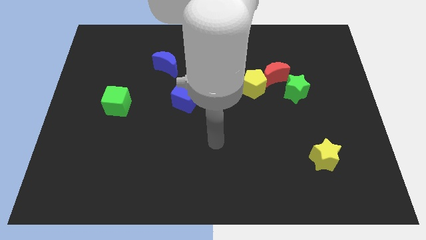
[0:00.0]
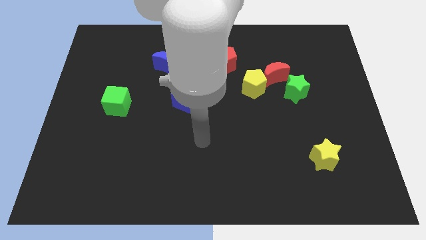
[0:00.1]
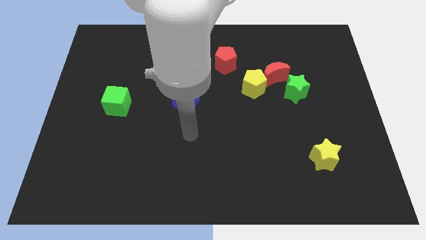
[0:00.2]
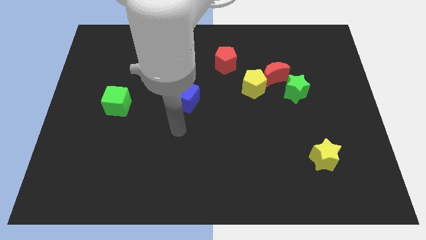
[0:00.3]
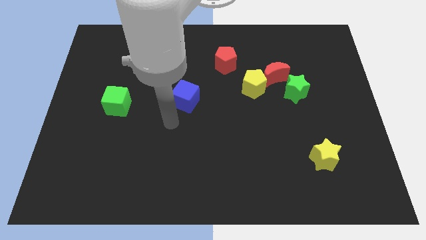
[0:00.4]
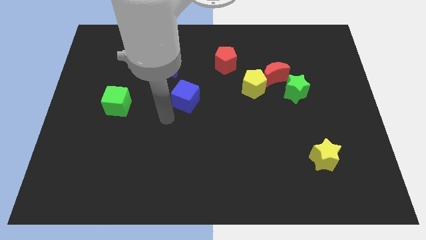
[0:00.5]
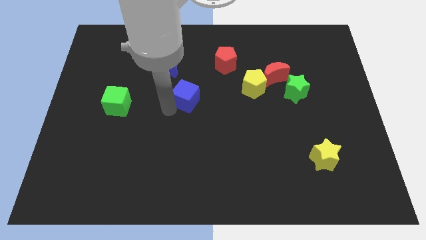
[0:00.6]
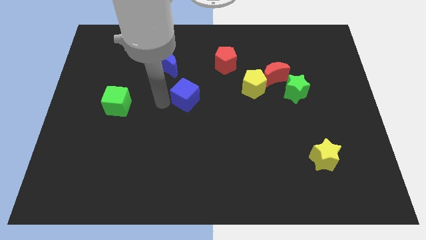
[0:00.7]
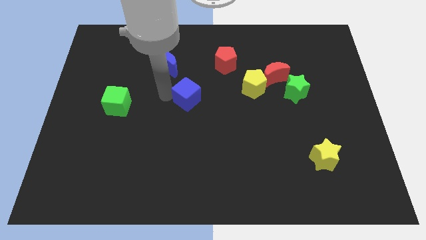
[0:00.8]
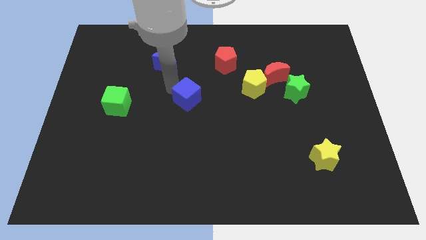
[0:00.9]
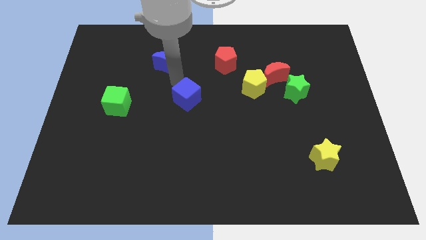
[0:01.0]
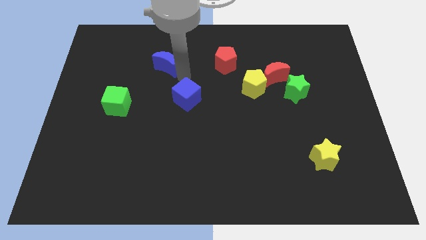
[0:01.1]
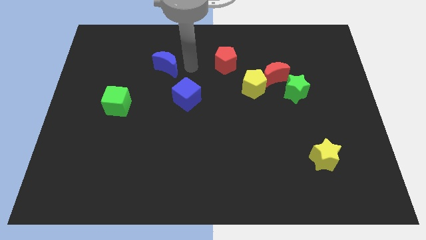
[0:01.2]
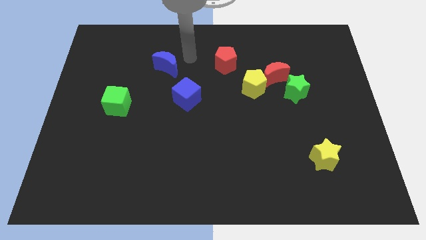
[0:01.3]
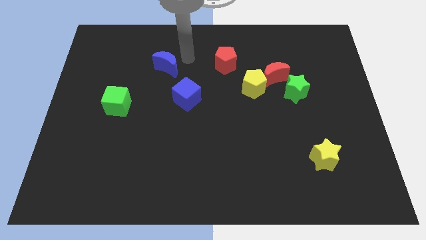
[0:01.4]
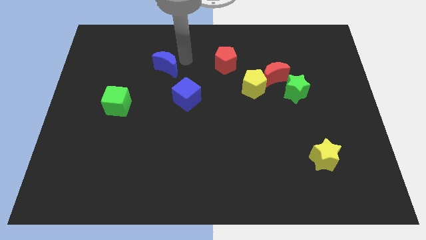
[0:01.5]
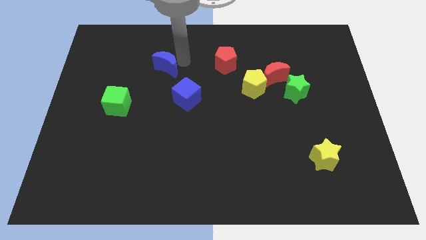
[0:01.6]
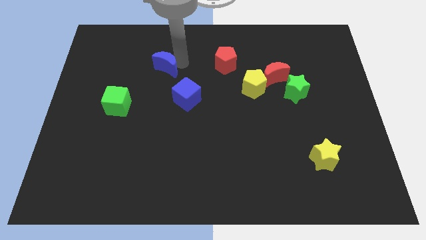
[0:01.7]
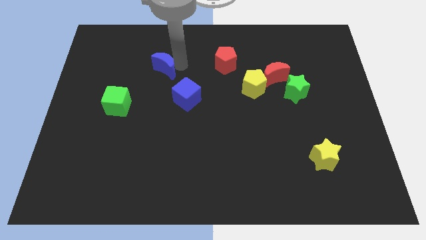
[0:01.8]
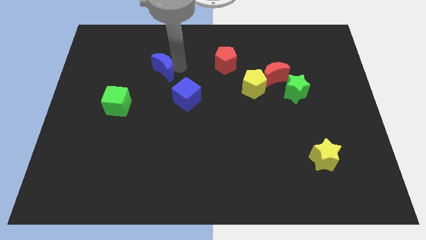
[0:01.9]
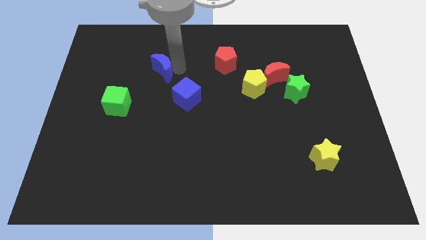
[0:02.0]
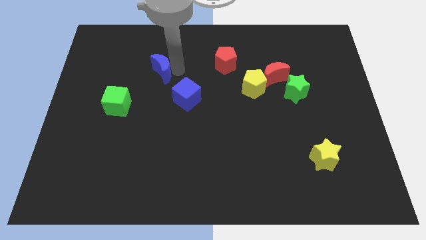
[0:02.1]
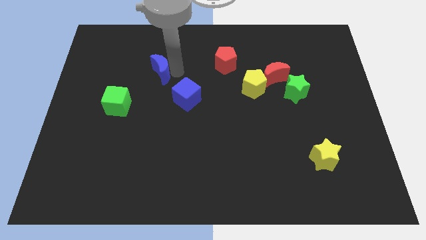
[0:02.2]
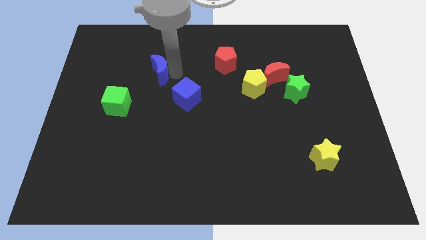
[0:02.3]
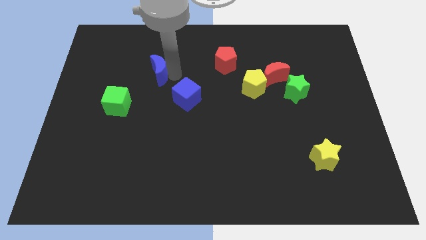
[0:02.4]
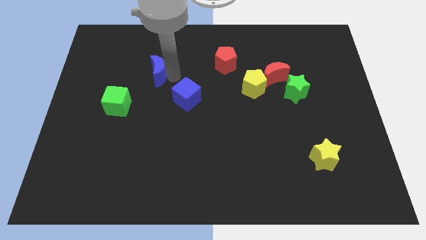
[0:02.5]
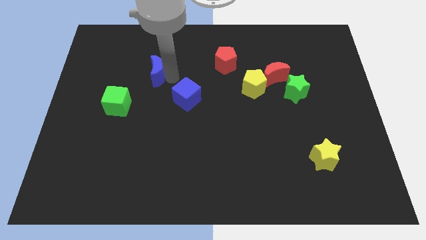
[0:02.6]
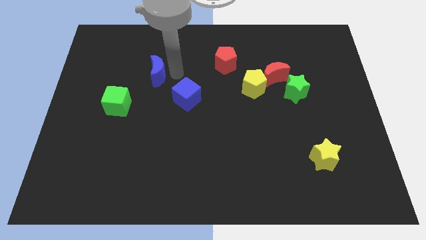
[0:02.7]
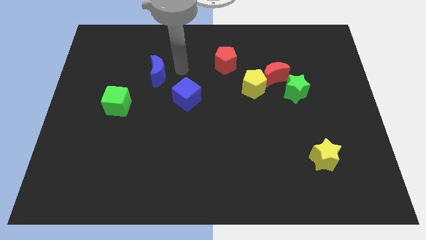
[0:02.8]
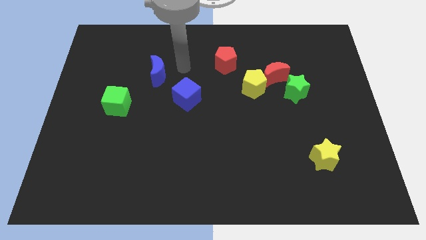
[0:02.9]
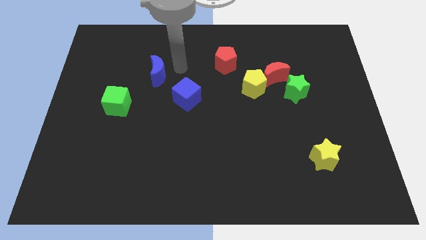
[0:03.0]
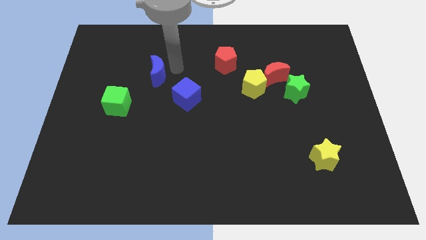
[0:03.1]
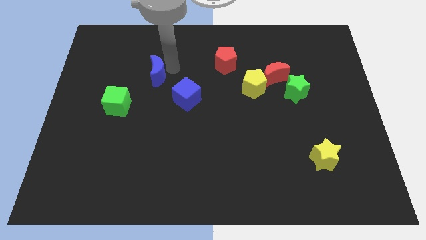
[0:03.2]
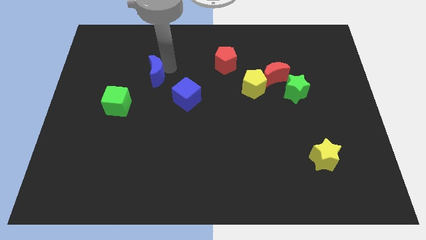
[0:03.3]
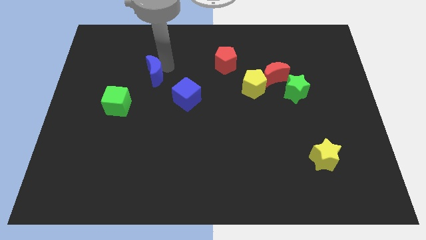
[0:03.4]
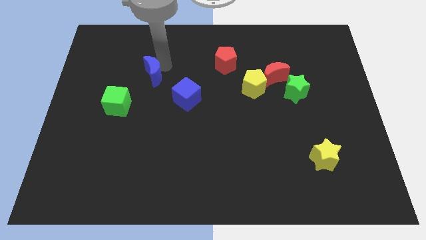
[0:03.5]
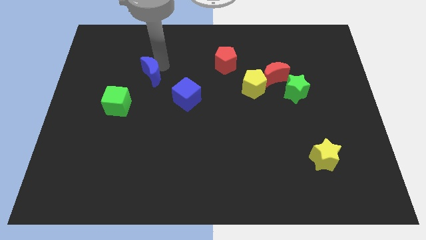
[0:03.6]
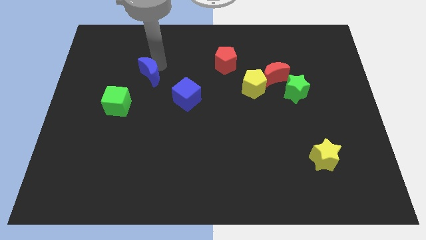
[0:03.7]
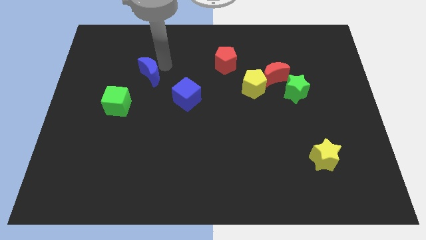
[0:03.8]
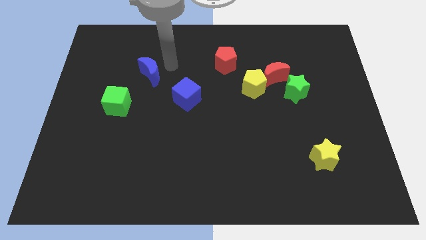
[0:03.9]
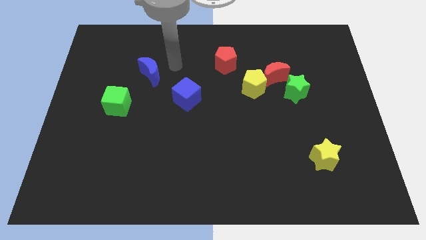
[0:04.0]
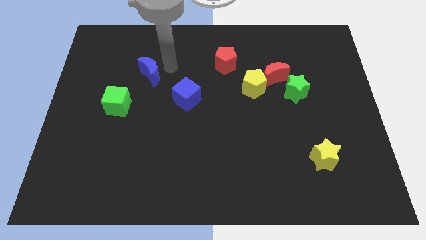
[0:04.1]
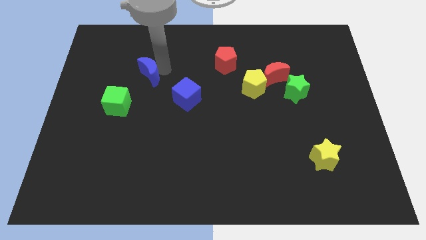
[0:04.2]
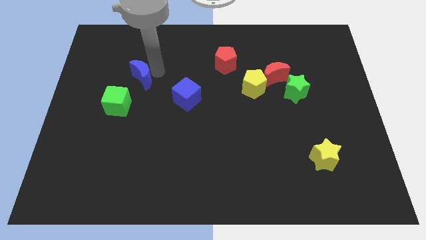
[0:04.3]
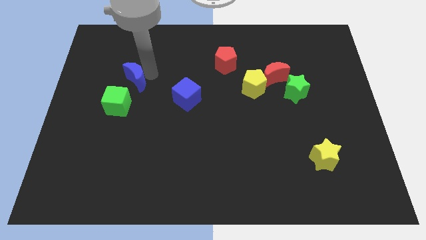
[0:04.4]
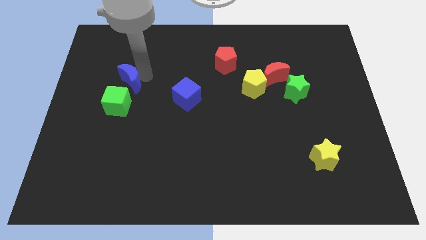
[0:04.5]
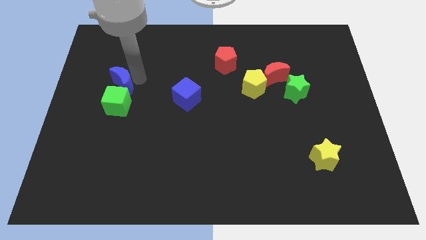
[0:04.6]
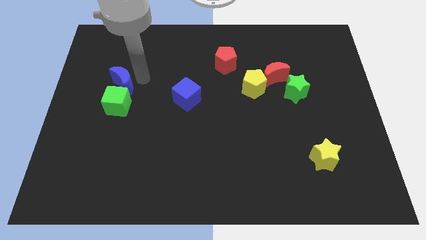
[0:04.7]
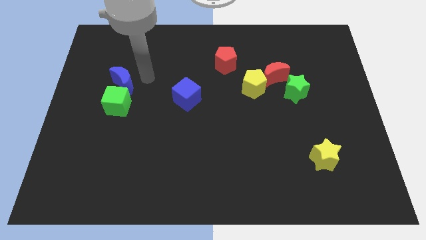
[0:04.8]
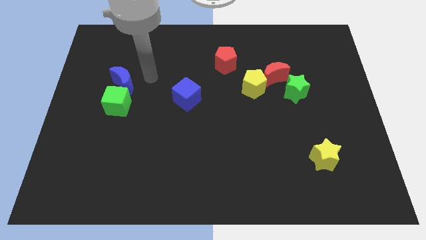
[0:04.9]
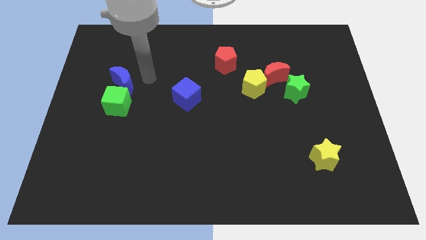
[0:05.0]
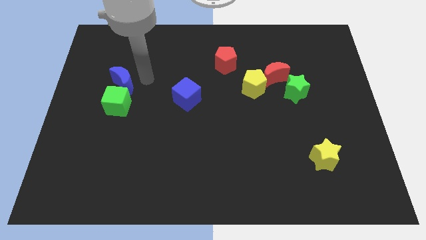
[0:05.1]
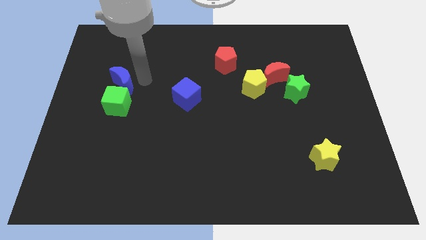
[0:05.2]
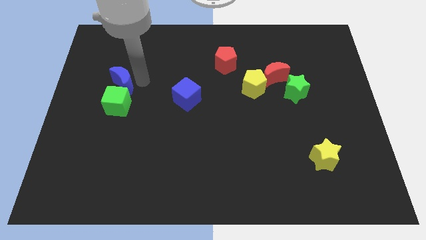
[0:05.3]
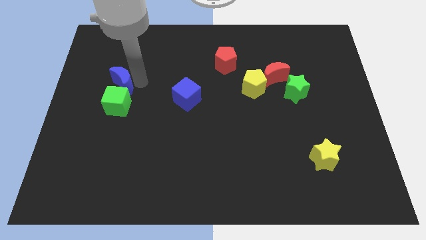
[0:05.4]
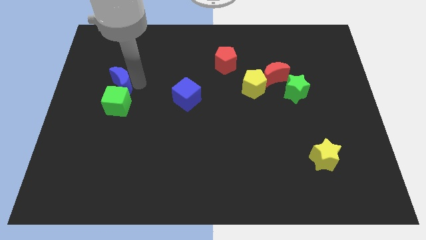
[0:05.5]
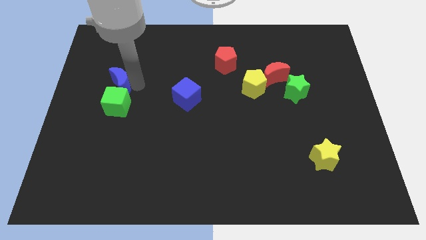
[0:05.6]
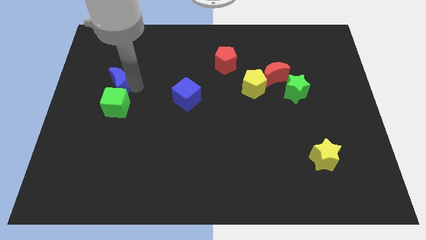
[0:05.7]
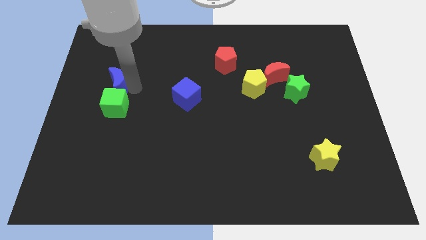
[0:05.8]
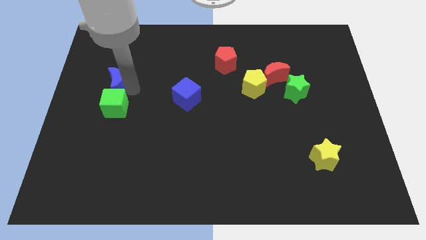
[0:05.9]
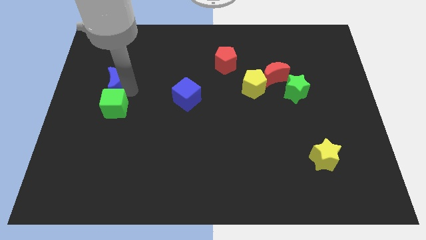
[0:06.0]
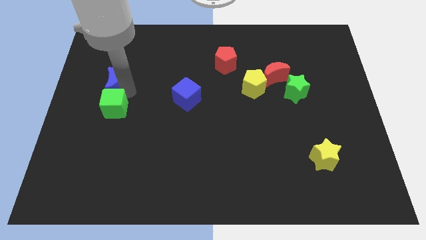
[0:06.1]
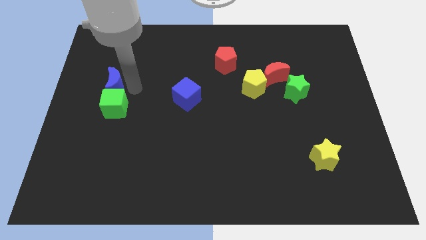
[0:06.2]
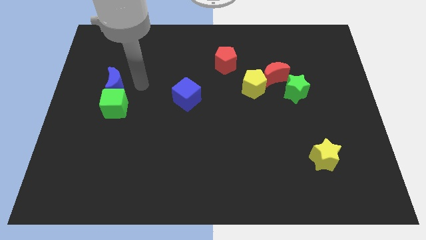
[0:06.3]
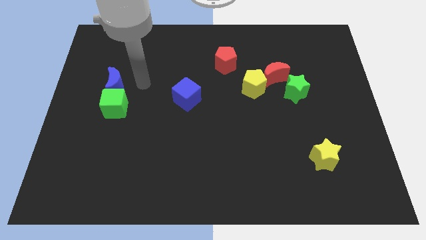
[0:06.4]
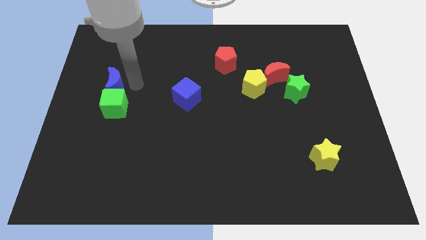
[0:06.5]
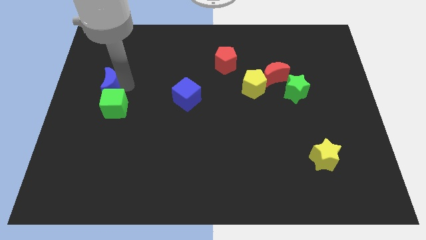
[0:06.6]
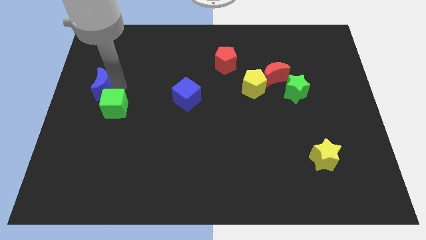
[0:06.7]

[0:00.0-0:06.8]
put the blue moon to the left side of the board
